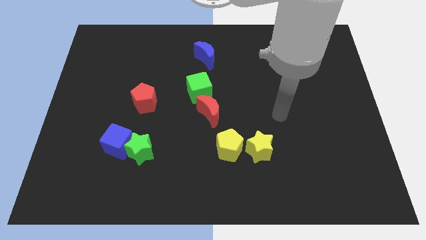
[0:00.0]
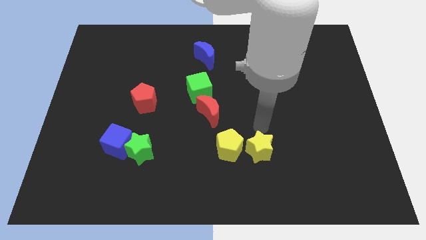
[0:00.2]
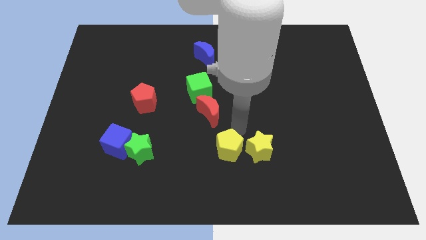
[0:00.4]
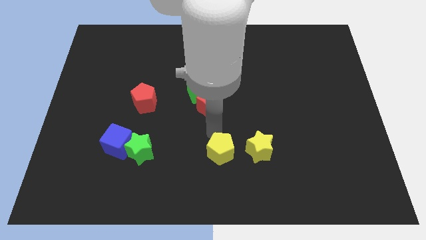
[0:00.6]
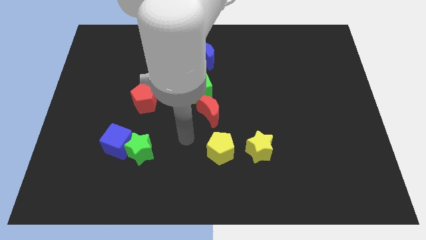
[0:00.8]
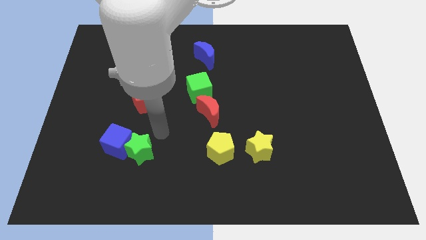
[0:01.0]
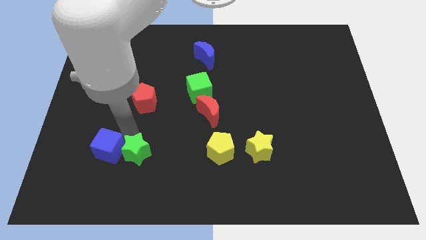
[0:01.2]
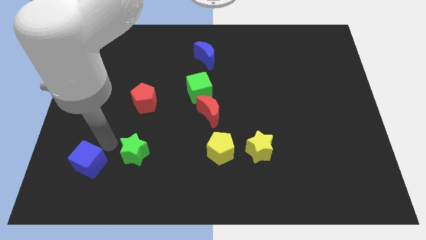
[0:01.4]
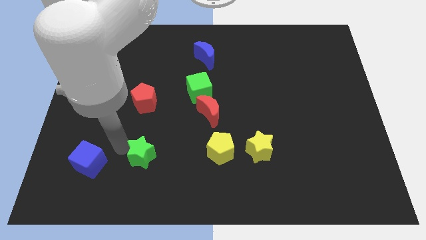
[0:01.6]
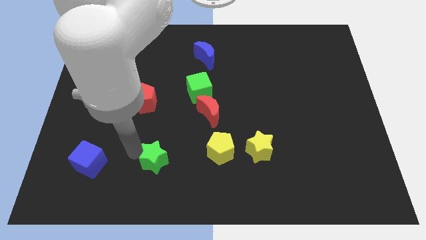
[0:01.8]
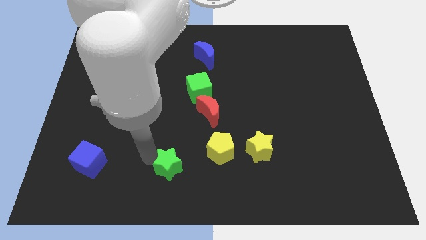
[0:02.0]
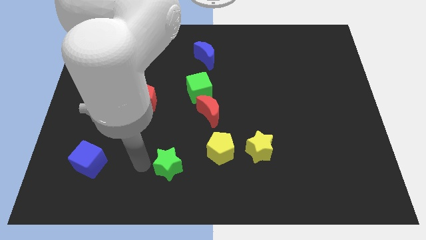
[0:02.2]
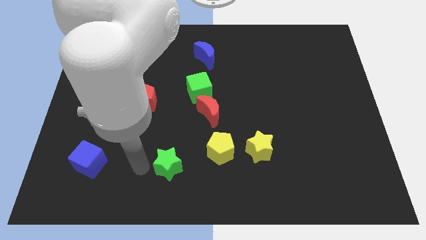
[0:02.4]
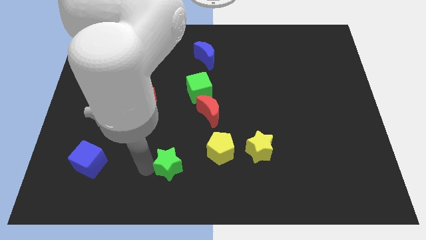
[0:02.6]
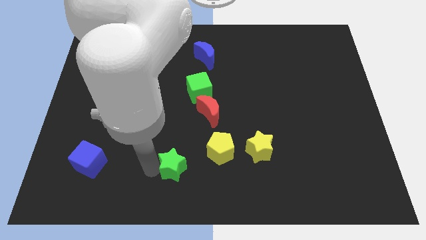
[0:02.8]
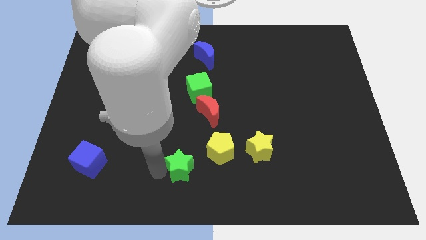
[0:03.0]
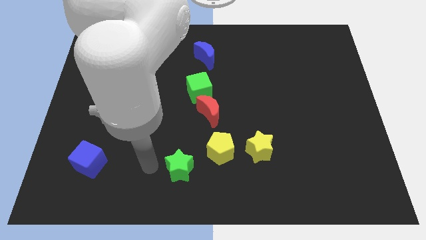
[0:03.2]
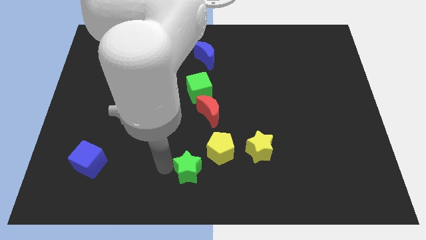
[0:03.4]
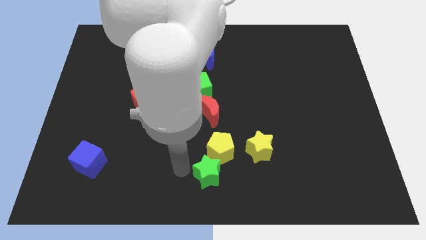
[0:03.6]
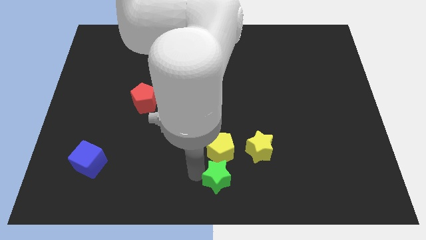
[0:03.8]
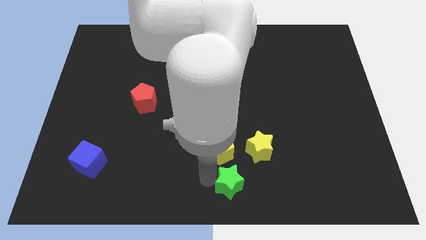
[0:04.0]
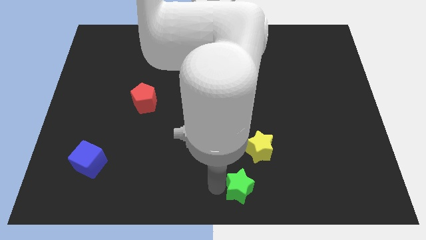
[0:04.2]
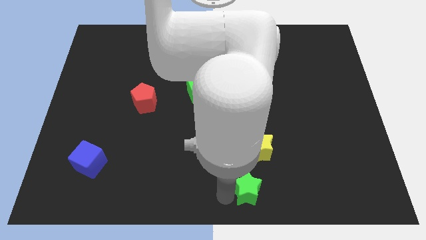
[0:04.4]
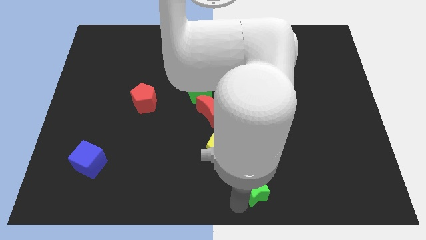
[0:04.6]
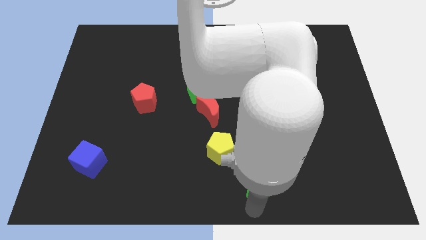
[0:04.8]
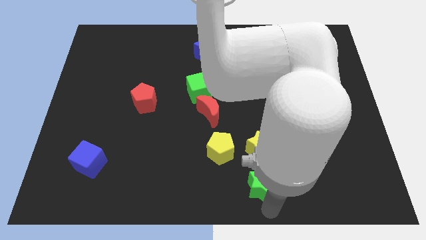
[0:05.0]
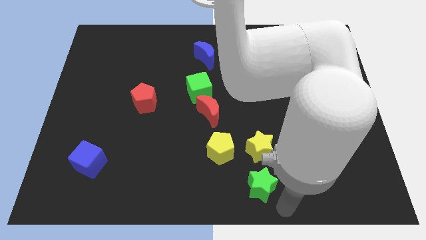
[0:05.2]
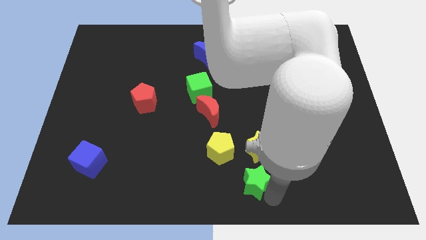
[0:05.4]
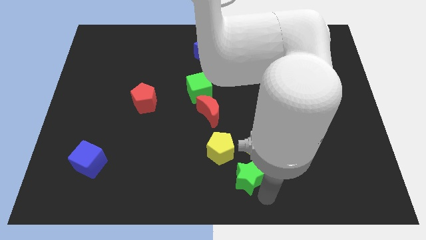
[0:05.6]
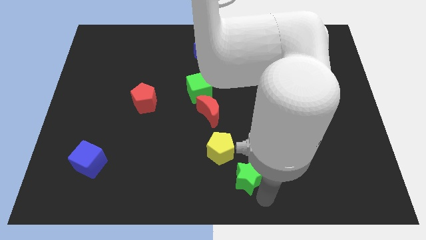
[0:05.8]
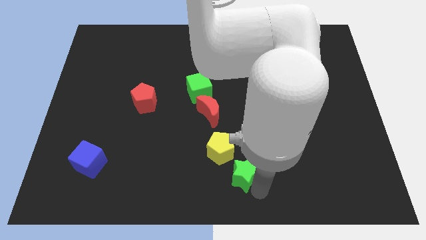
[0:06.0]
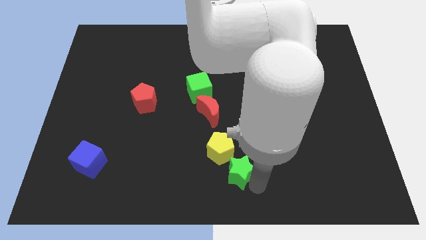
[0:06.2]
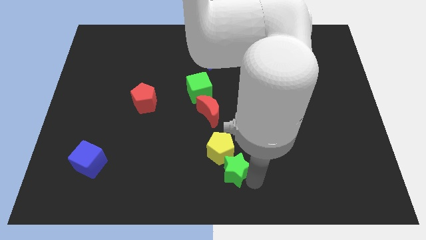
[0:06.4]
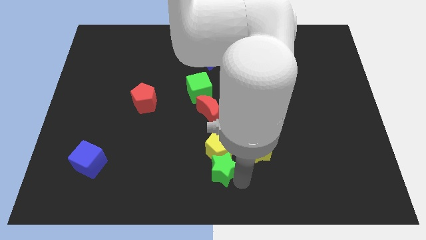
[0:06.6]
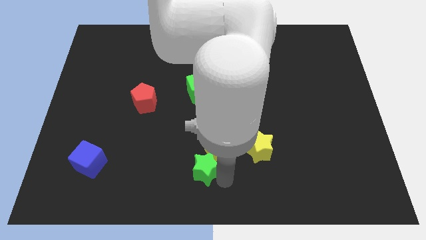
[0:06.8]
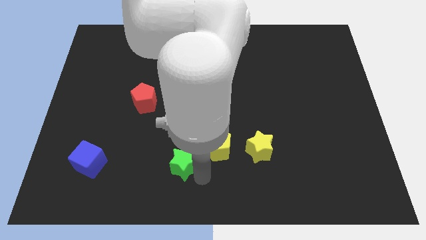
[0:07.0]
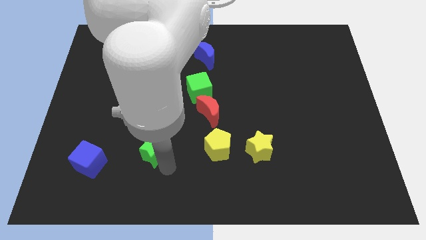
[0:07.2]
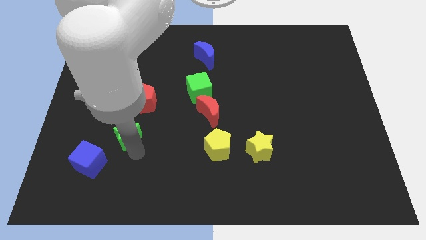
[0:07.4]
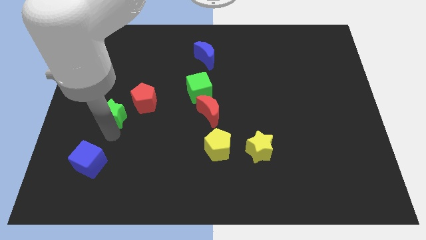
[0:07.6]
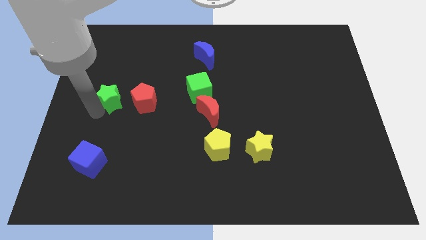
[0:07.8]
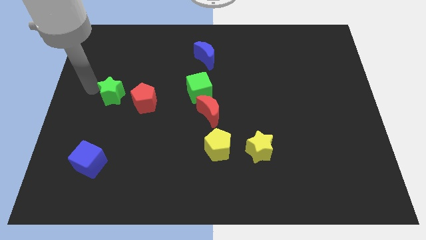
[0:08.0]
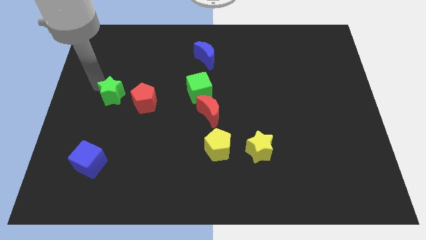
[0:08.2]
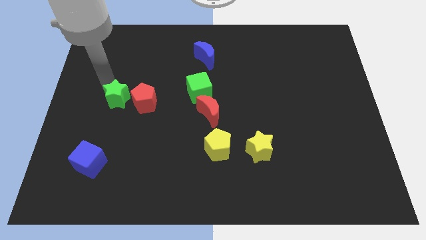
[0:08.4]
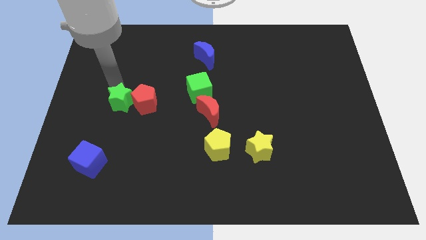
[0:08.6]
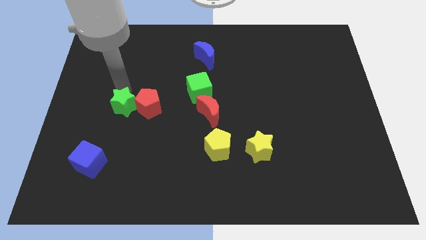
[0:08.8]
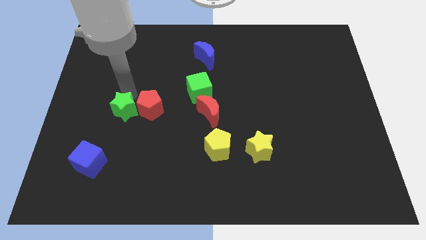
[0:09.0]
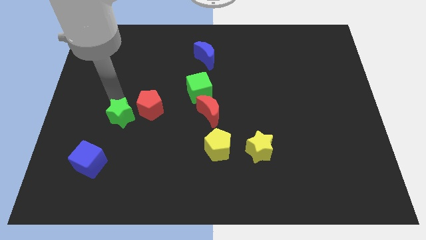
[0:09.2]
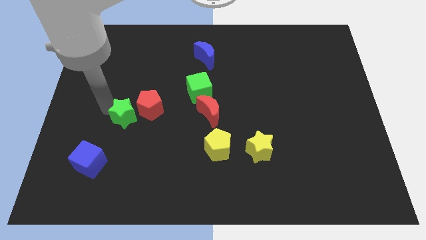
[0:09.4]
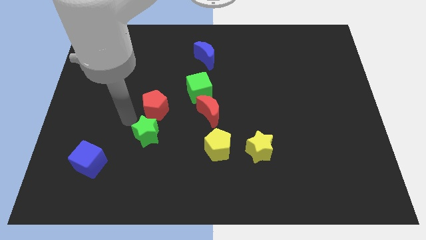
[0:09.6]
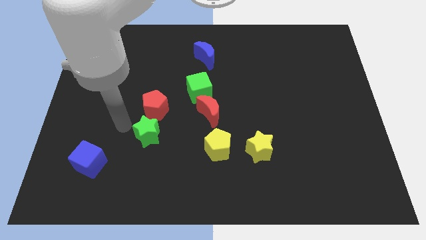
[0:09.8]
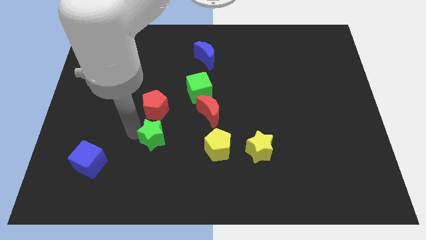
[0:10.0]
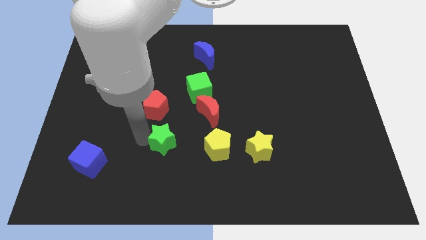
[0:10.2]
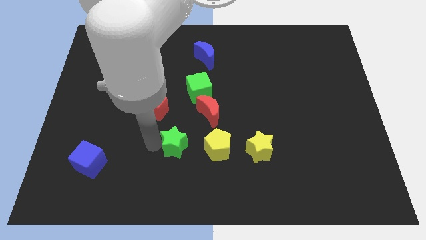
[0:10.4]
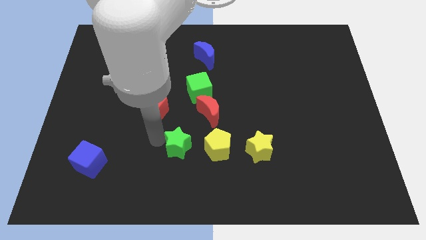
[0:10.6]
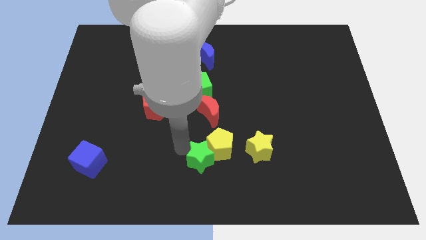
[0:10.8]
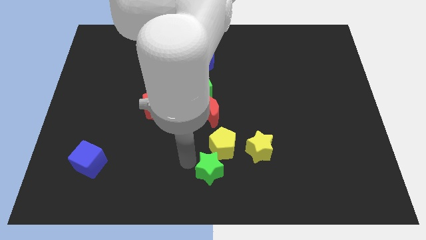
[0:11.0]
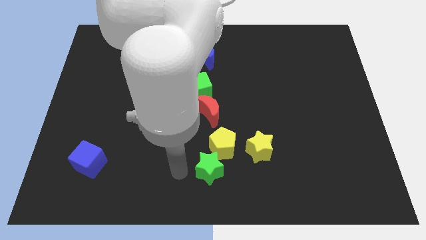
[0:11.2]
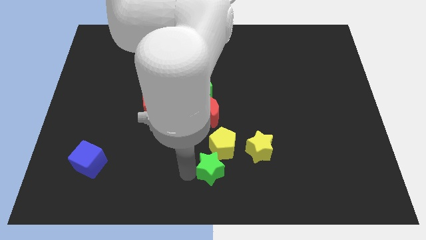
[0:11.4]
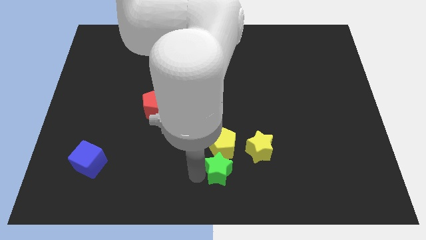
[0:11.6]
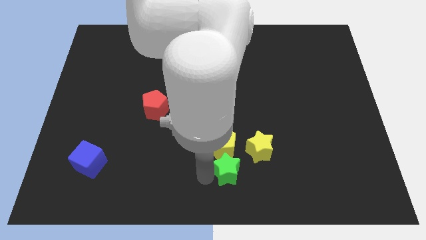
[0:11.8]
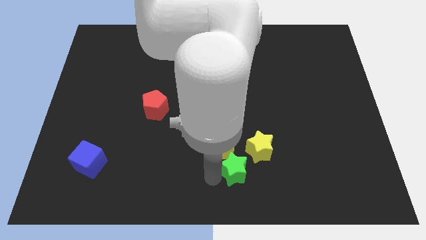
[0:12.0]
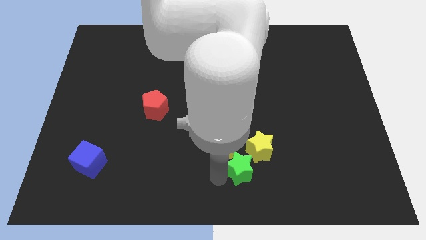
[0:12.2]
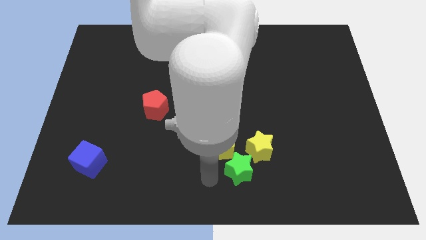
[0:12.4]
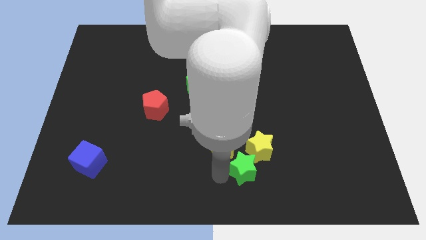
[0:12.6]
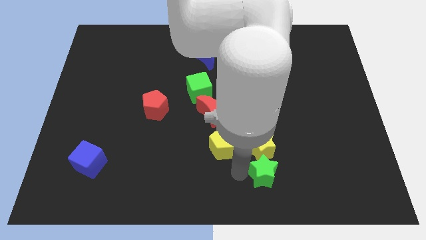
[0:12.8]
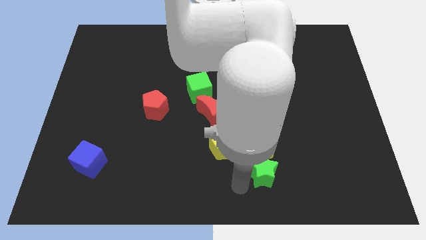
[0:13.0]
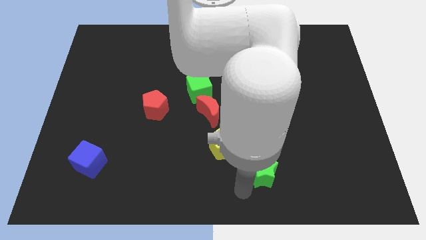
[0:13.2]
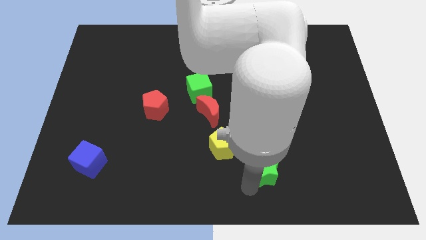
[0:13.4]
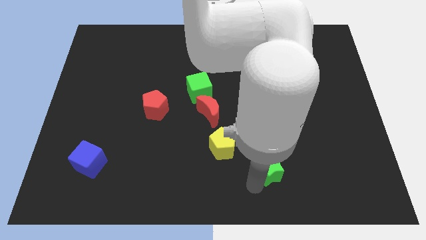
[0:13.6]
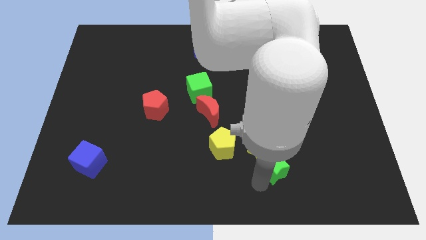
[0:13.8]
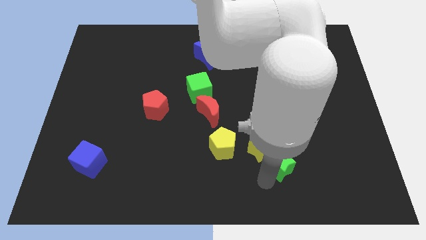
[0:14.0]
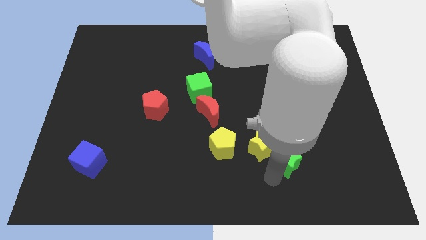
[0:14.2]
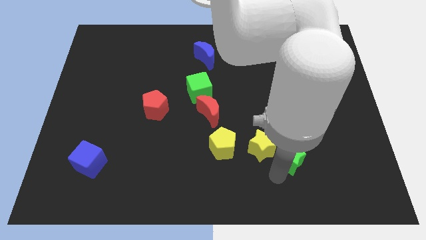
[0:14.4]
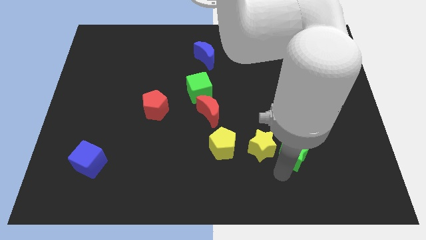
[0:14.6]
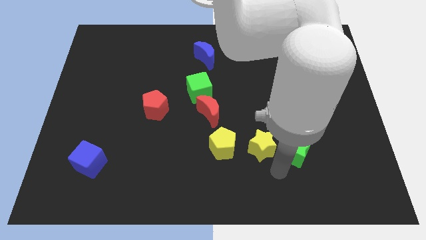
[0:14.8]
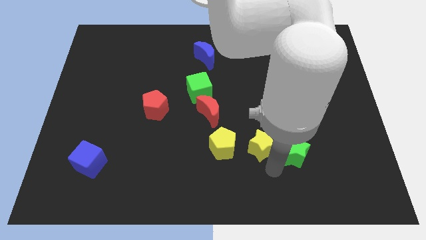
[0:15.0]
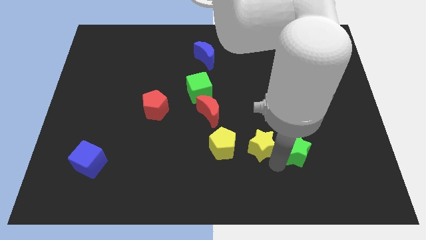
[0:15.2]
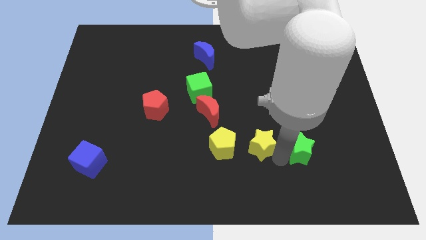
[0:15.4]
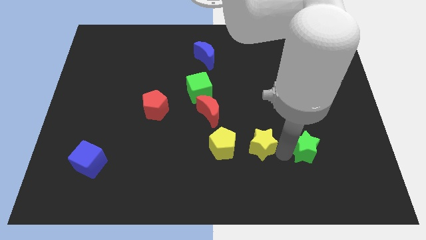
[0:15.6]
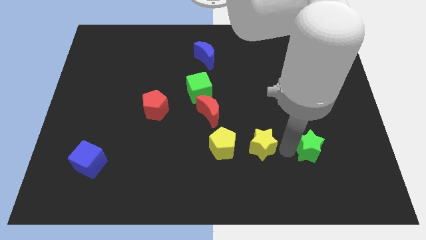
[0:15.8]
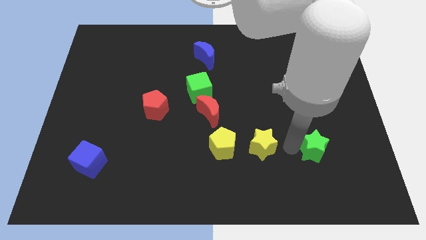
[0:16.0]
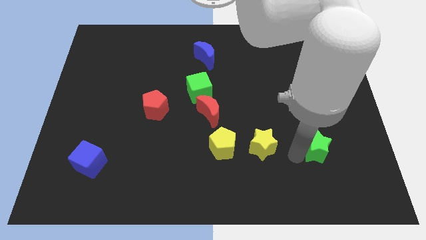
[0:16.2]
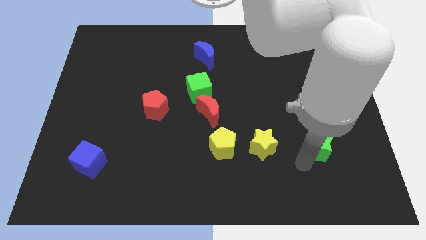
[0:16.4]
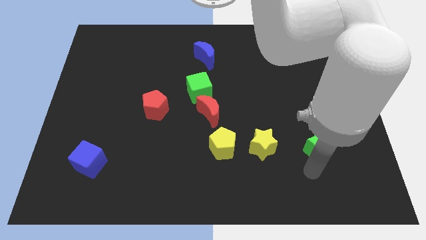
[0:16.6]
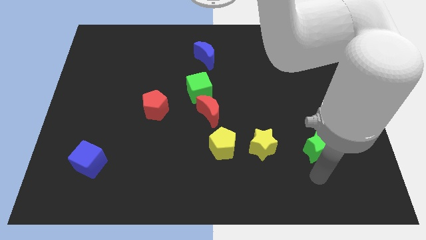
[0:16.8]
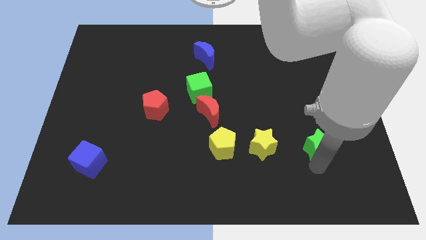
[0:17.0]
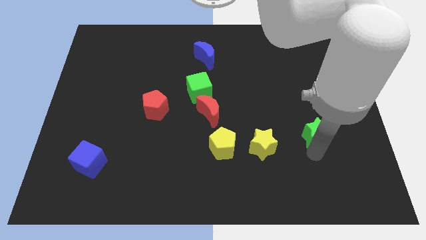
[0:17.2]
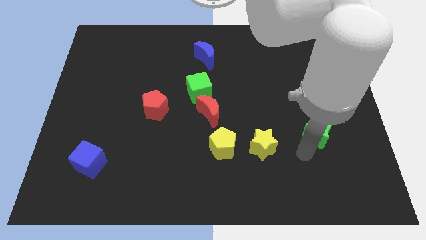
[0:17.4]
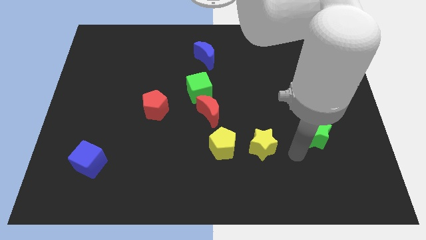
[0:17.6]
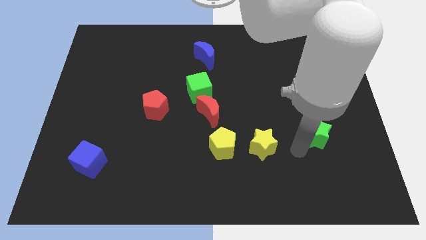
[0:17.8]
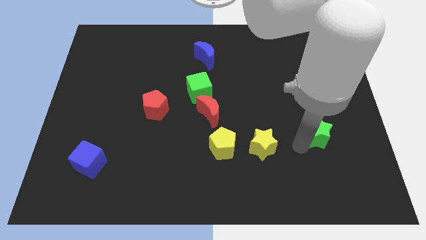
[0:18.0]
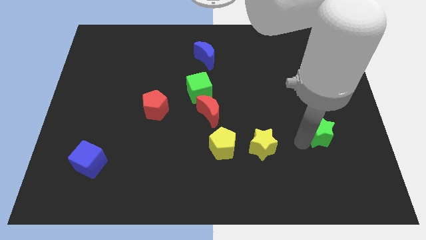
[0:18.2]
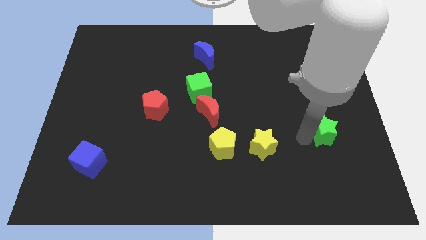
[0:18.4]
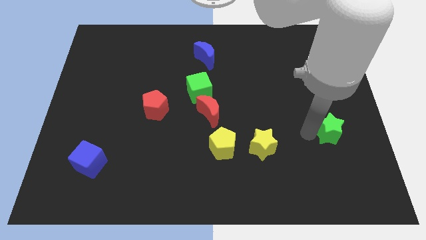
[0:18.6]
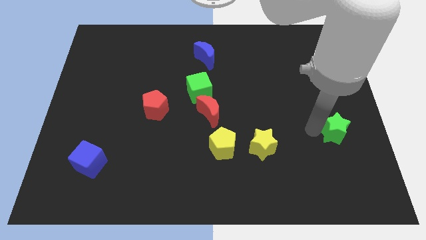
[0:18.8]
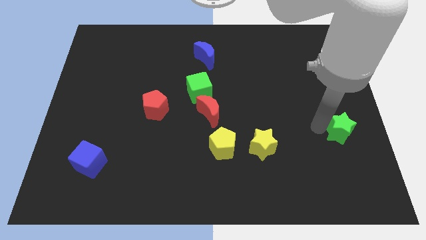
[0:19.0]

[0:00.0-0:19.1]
slide the green star to the center right
